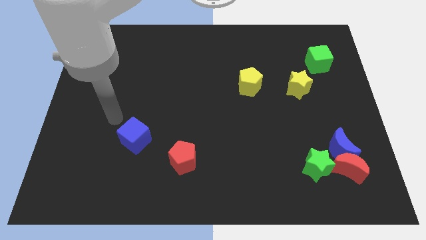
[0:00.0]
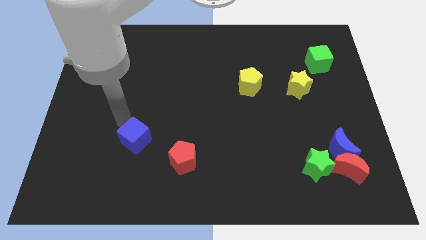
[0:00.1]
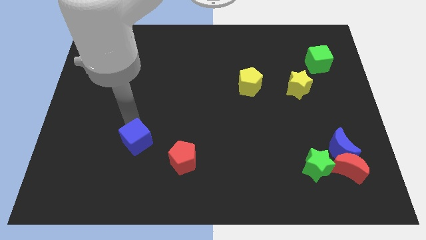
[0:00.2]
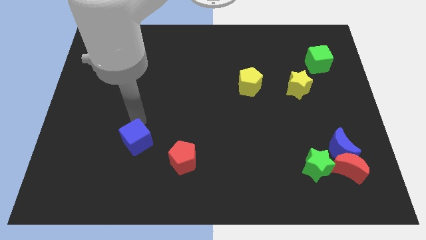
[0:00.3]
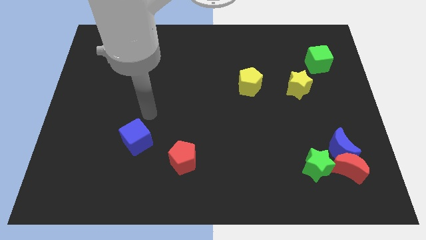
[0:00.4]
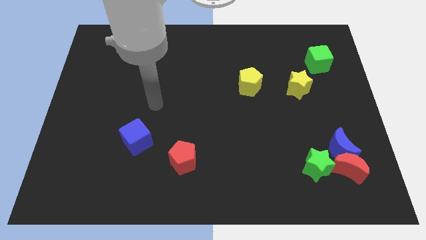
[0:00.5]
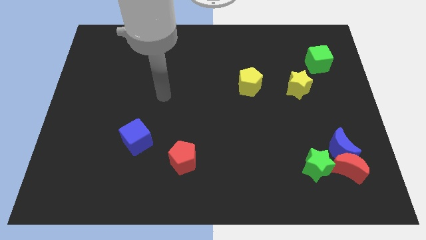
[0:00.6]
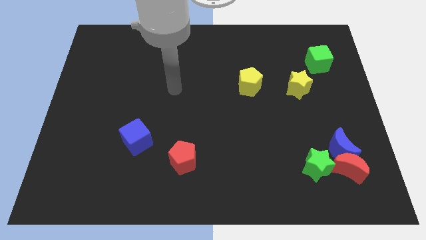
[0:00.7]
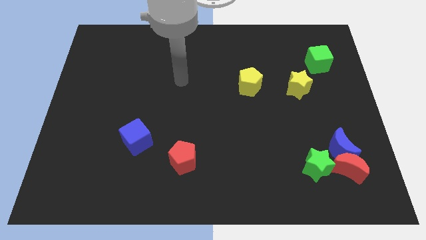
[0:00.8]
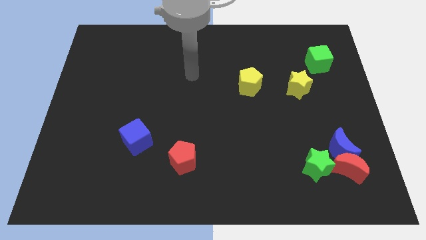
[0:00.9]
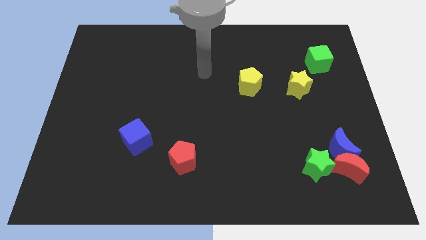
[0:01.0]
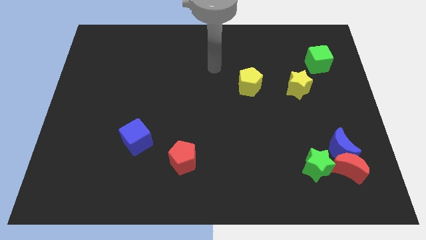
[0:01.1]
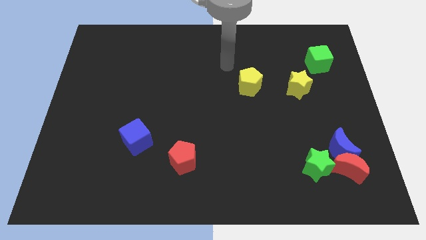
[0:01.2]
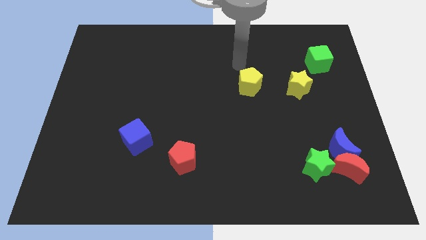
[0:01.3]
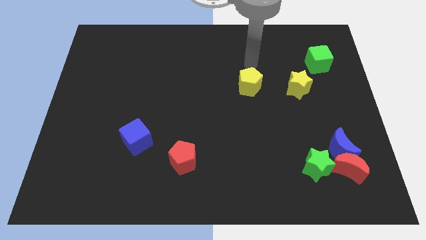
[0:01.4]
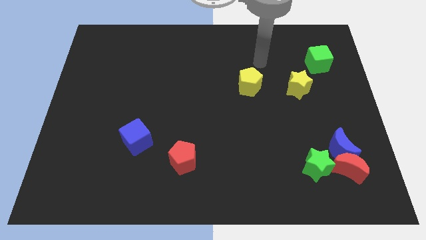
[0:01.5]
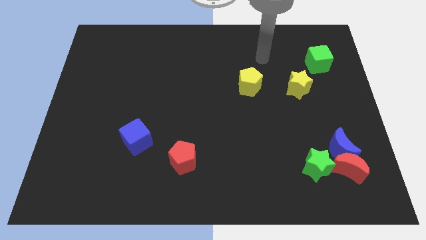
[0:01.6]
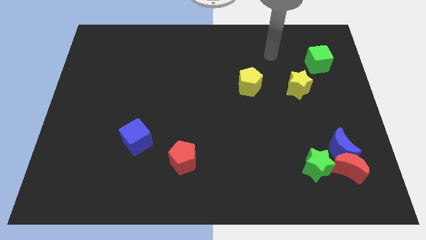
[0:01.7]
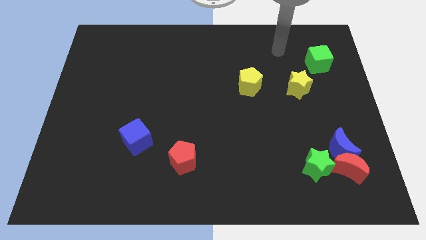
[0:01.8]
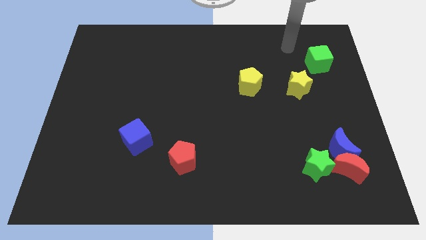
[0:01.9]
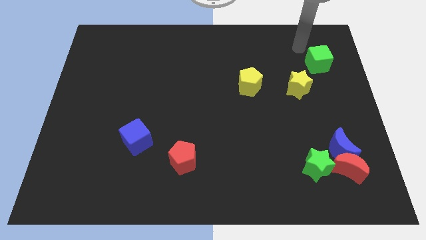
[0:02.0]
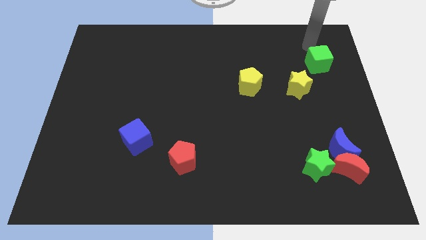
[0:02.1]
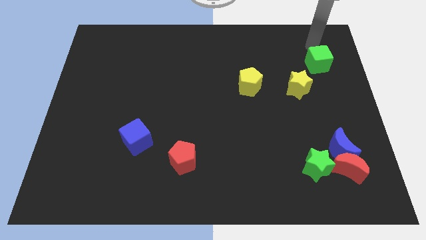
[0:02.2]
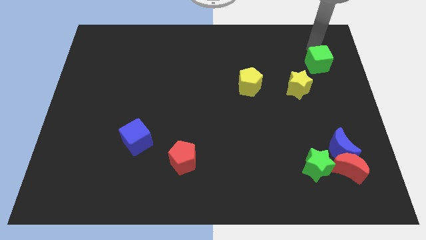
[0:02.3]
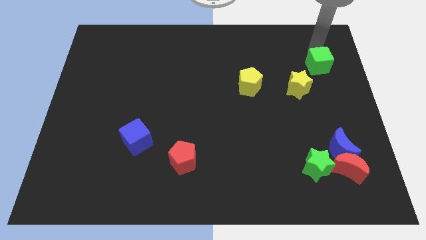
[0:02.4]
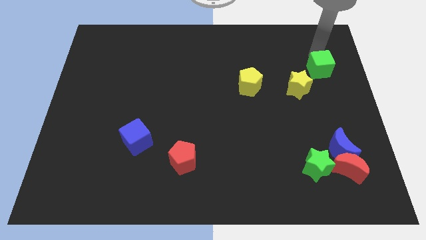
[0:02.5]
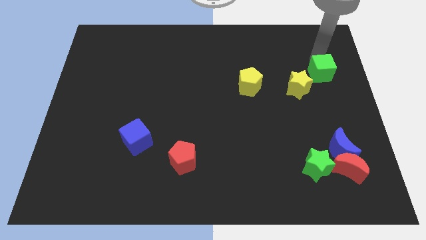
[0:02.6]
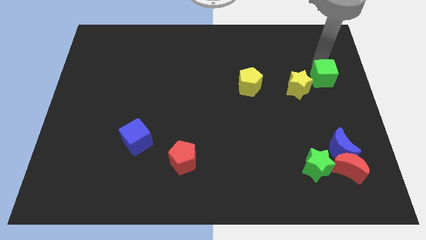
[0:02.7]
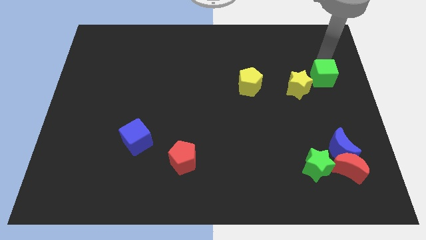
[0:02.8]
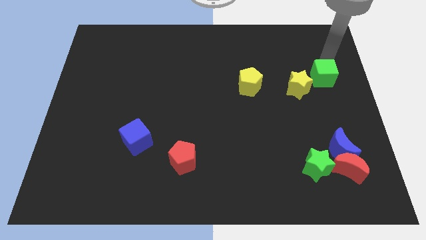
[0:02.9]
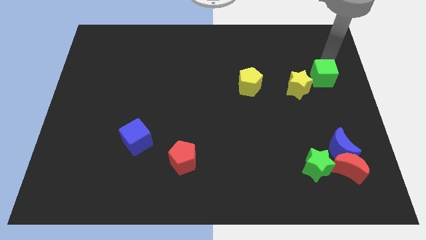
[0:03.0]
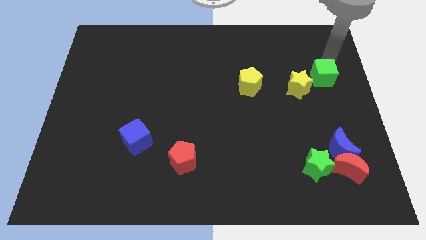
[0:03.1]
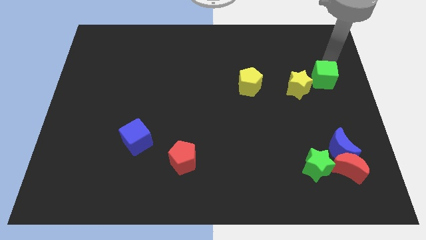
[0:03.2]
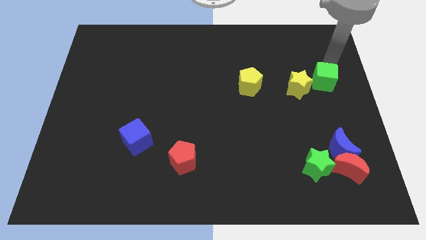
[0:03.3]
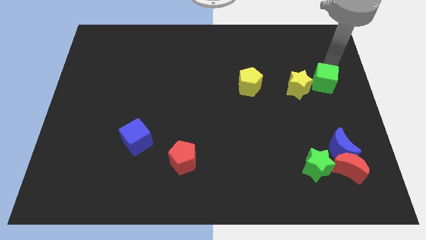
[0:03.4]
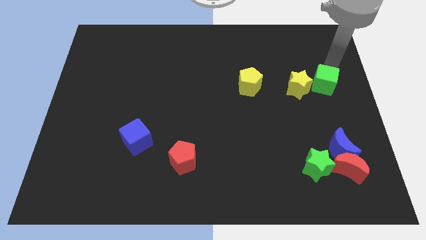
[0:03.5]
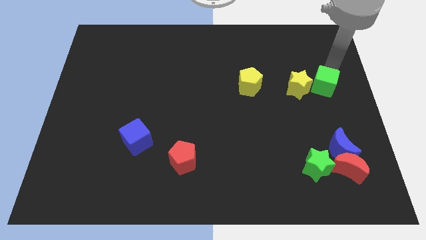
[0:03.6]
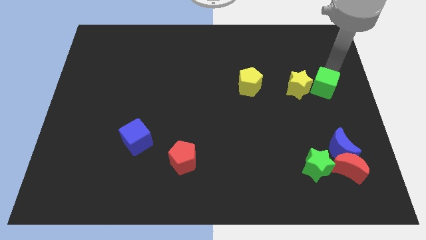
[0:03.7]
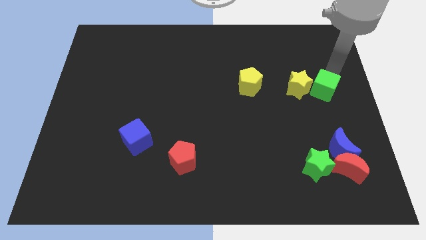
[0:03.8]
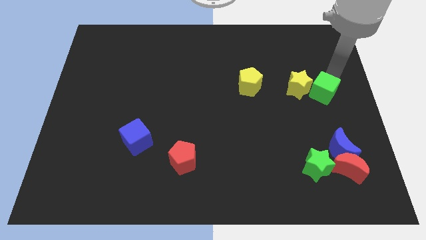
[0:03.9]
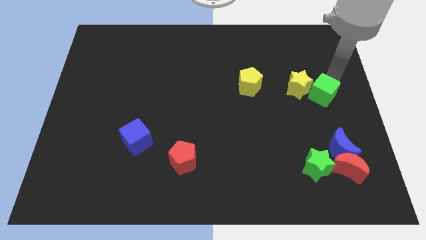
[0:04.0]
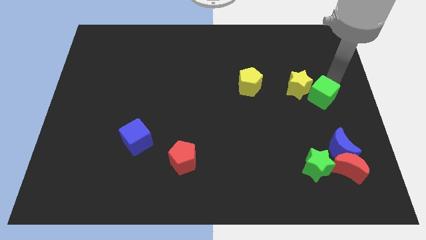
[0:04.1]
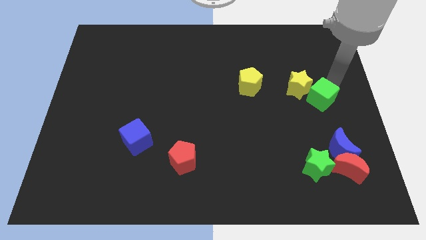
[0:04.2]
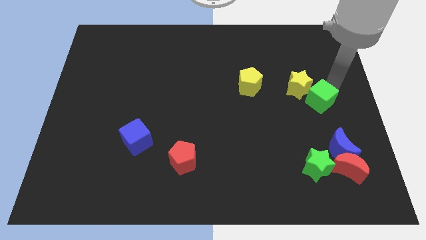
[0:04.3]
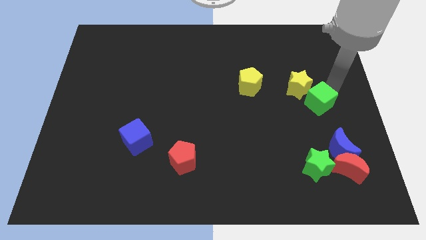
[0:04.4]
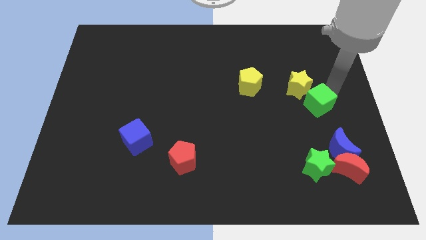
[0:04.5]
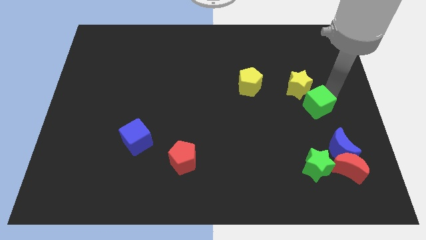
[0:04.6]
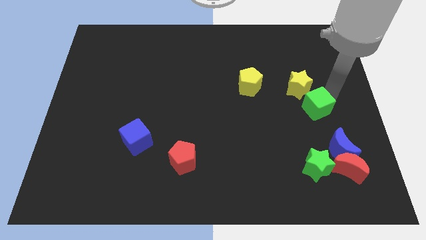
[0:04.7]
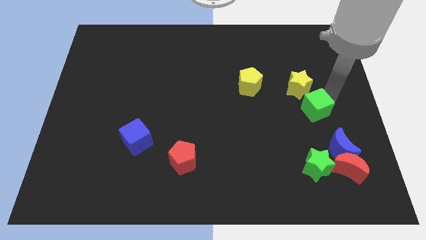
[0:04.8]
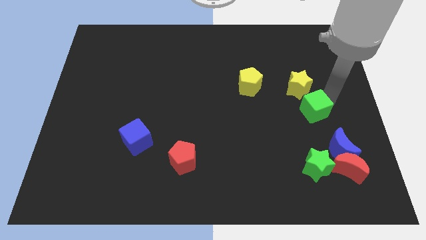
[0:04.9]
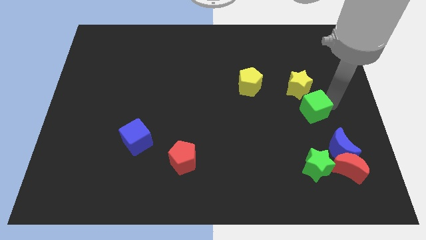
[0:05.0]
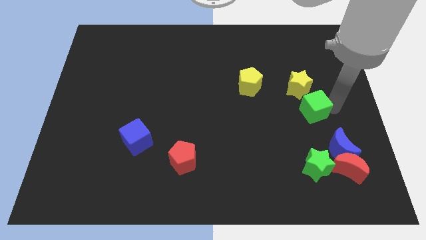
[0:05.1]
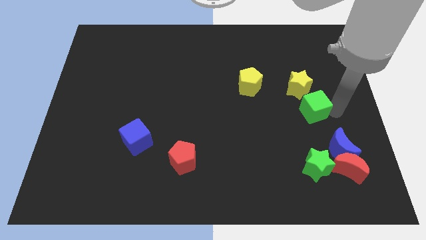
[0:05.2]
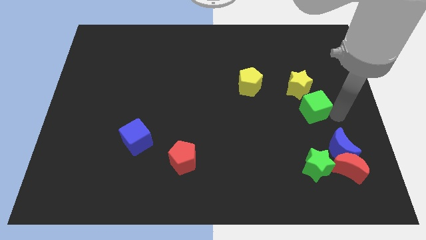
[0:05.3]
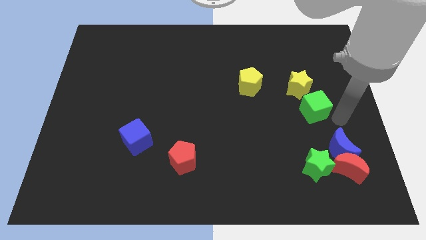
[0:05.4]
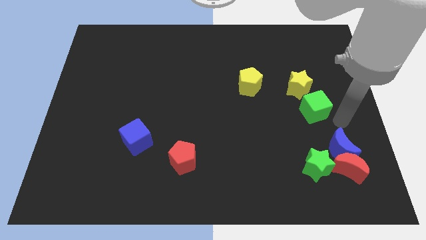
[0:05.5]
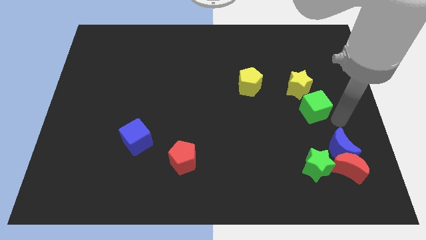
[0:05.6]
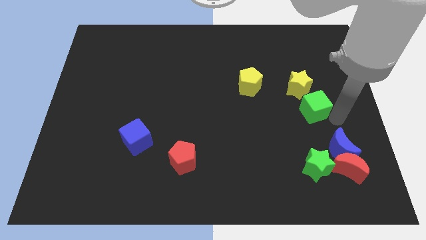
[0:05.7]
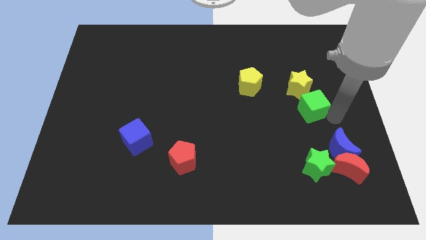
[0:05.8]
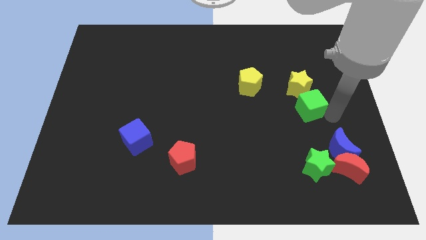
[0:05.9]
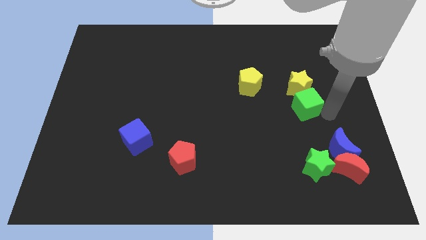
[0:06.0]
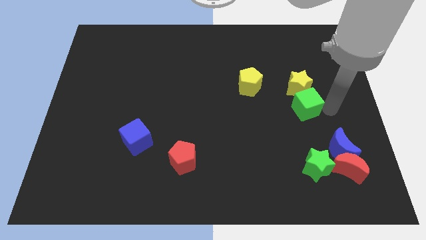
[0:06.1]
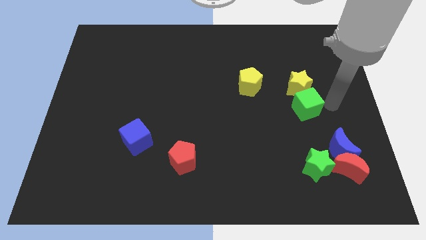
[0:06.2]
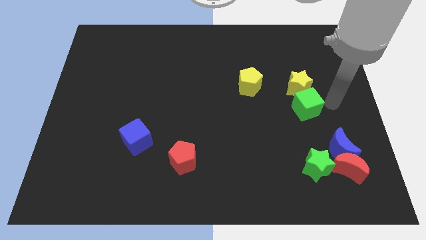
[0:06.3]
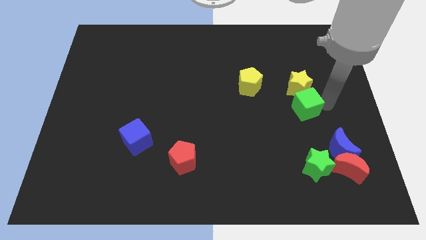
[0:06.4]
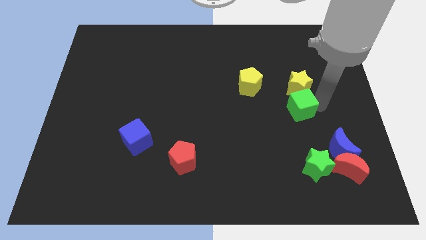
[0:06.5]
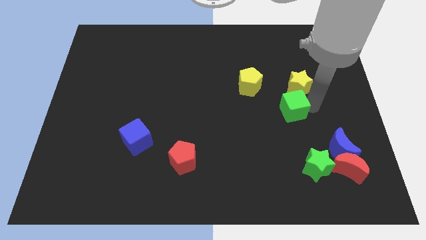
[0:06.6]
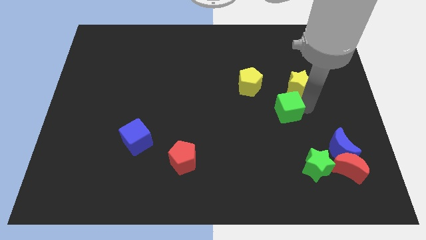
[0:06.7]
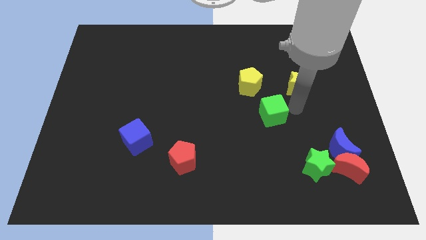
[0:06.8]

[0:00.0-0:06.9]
move the green cube diagonally downwards and left

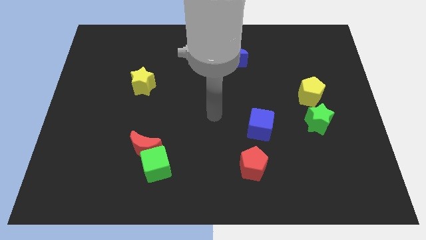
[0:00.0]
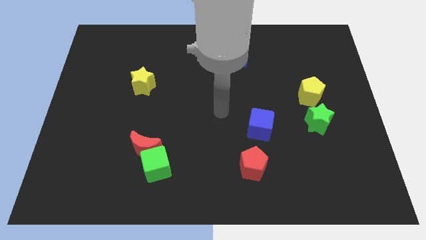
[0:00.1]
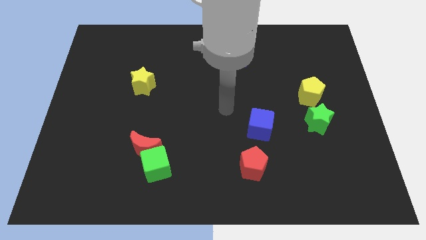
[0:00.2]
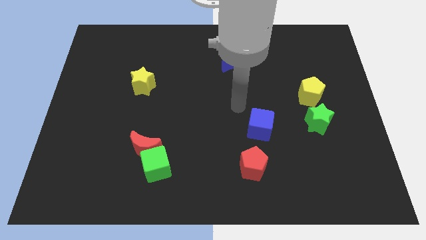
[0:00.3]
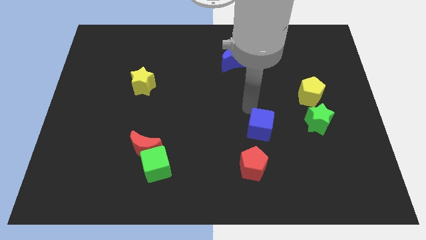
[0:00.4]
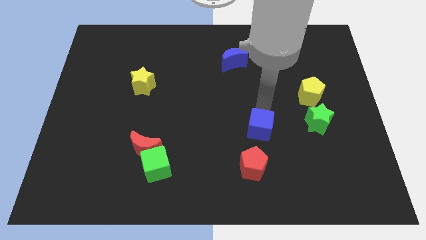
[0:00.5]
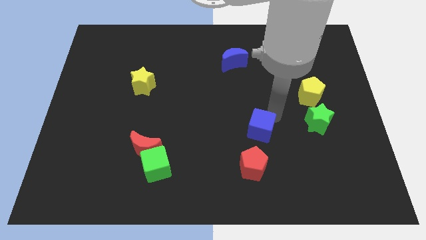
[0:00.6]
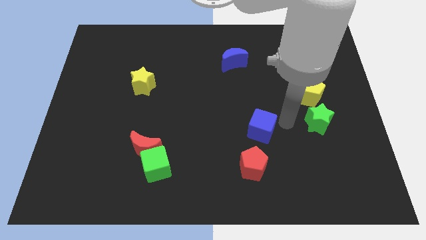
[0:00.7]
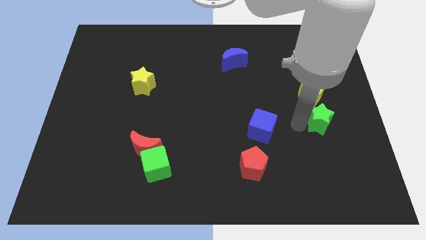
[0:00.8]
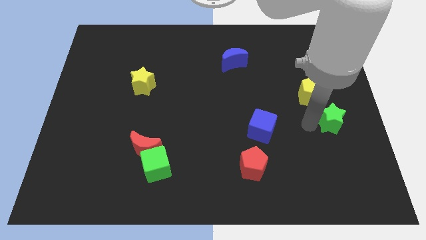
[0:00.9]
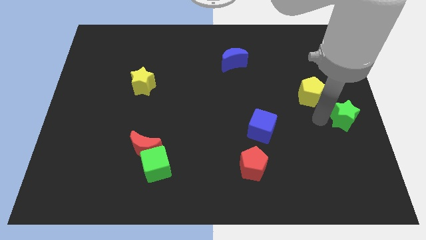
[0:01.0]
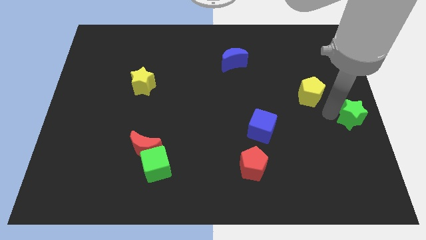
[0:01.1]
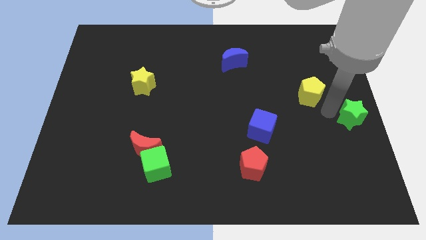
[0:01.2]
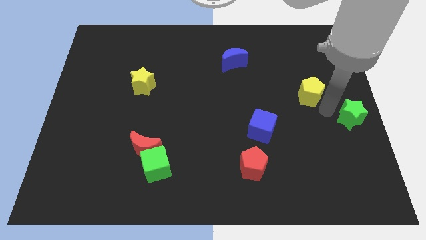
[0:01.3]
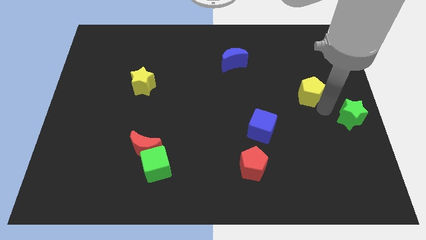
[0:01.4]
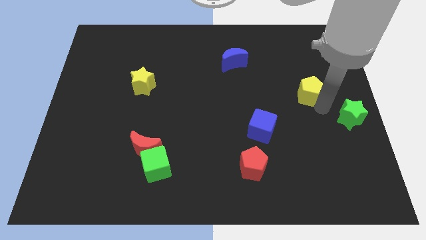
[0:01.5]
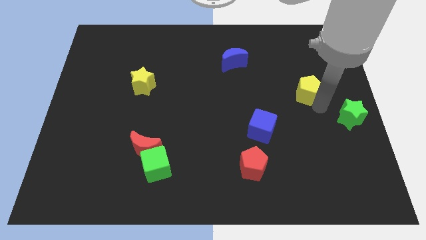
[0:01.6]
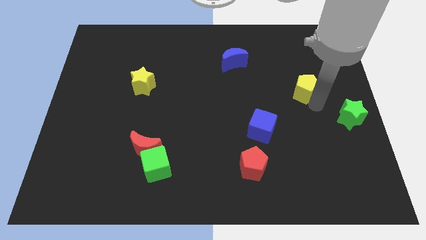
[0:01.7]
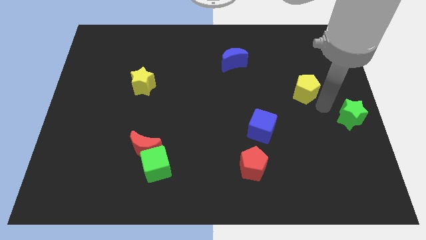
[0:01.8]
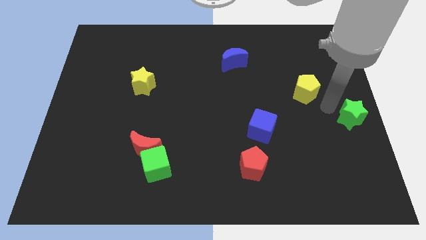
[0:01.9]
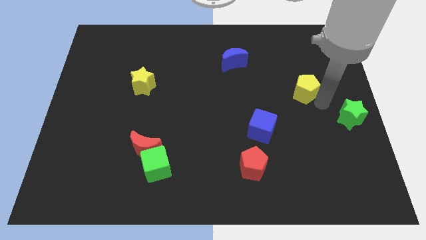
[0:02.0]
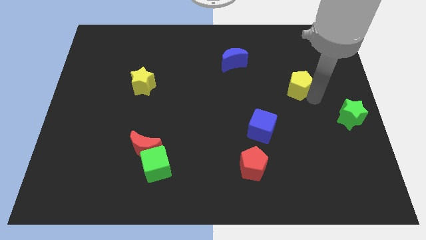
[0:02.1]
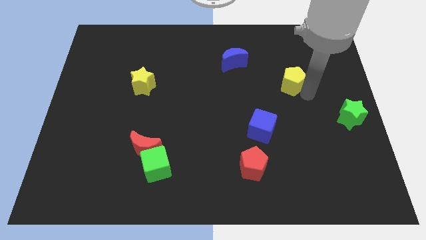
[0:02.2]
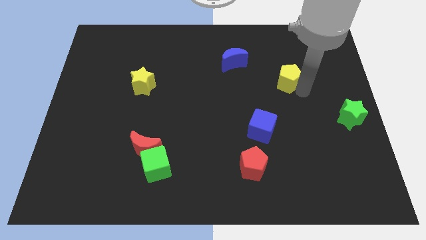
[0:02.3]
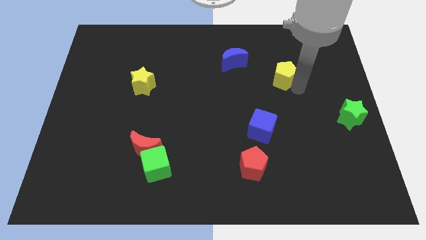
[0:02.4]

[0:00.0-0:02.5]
slightly slide the yellow pentagon up and then left
